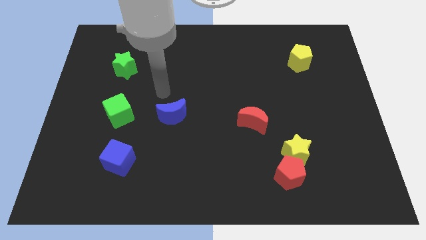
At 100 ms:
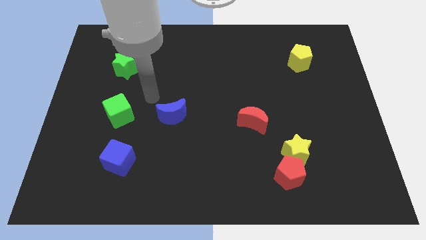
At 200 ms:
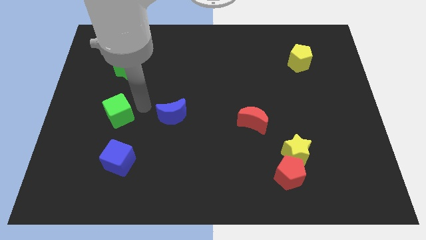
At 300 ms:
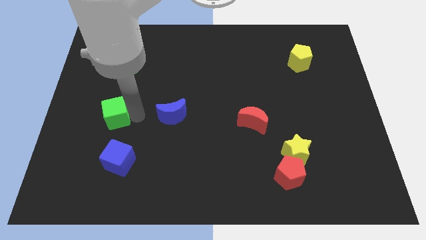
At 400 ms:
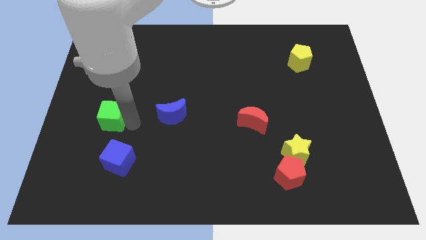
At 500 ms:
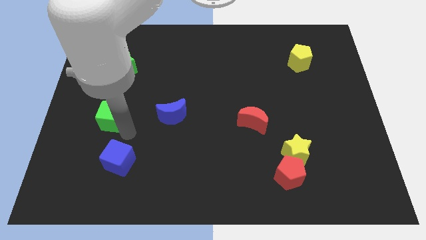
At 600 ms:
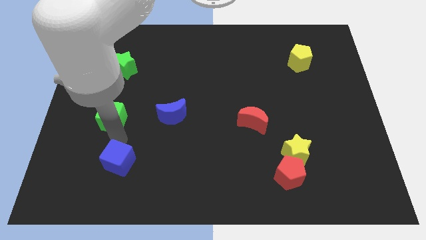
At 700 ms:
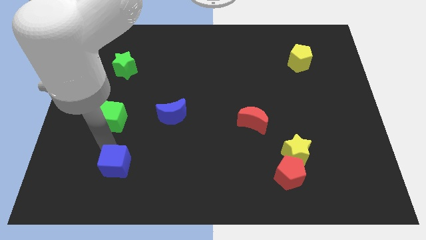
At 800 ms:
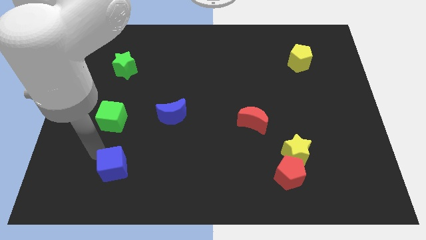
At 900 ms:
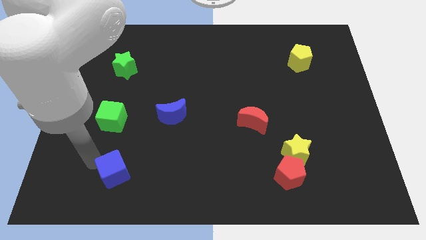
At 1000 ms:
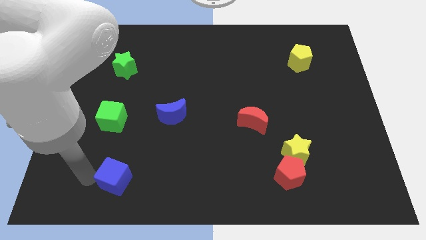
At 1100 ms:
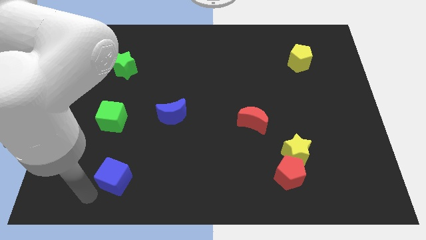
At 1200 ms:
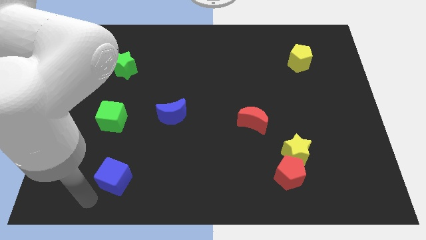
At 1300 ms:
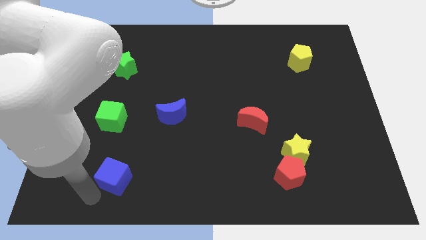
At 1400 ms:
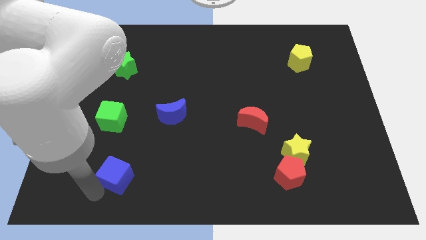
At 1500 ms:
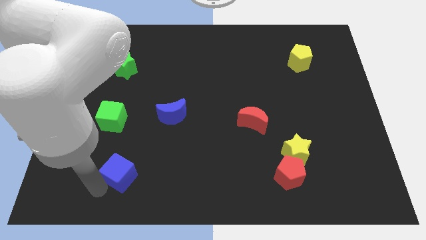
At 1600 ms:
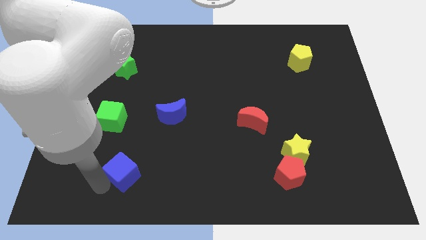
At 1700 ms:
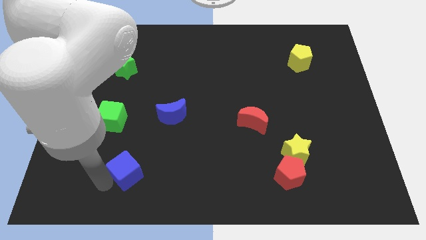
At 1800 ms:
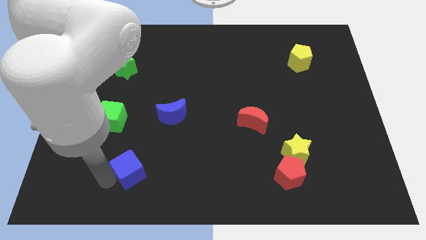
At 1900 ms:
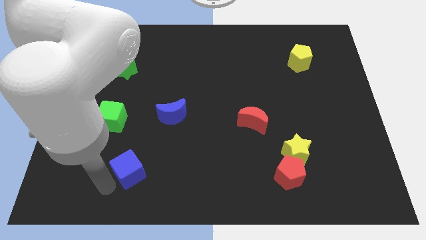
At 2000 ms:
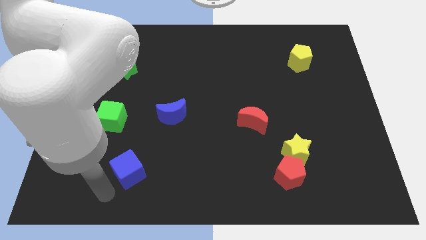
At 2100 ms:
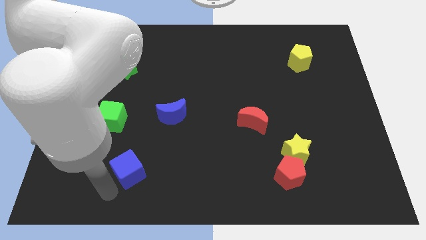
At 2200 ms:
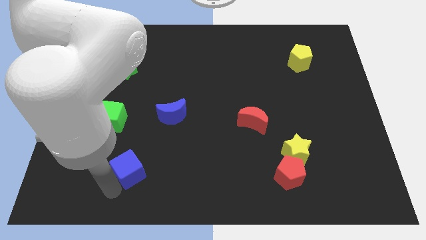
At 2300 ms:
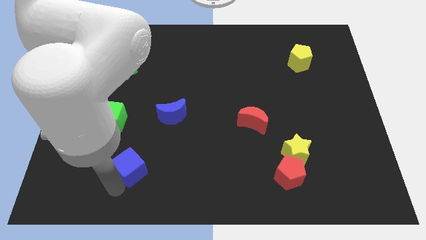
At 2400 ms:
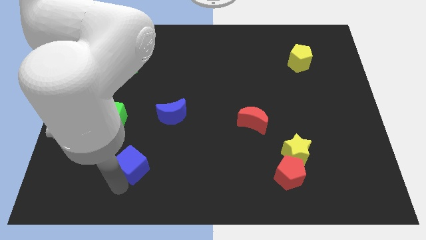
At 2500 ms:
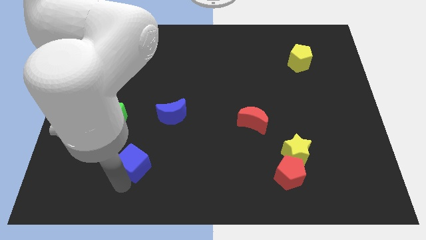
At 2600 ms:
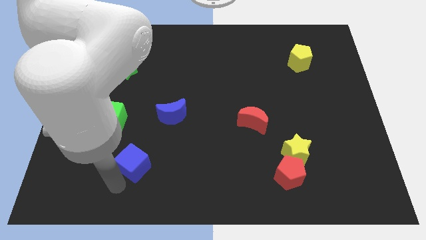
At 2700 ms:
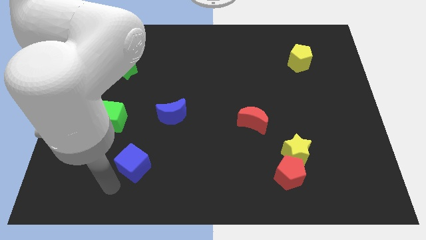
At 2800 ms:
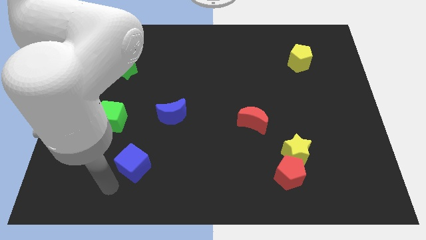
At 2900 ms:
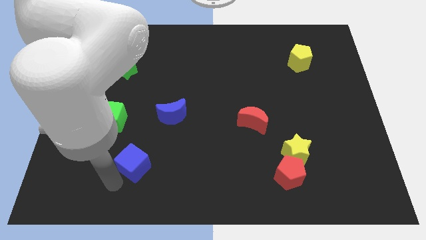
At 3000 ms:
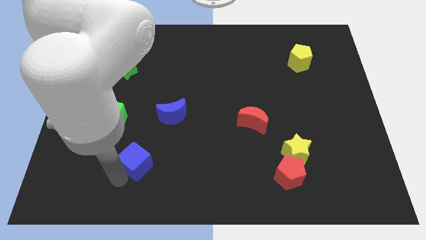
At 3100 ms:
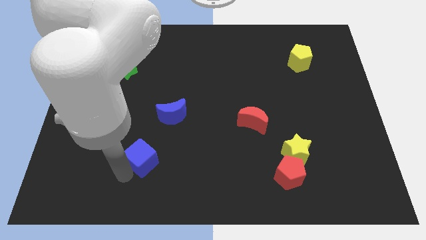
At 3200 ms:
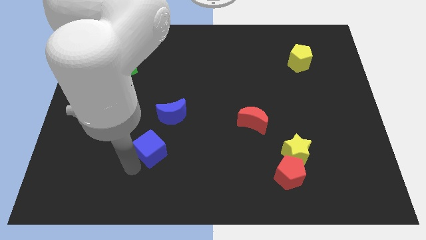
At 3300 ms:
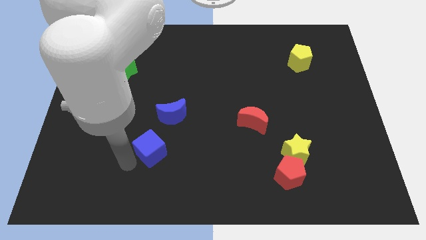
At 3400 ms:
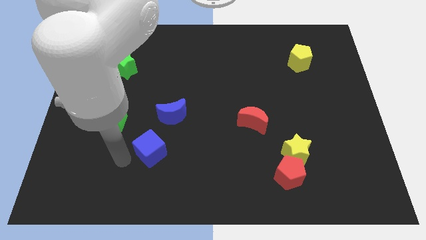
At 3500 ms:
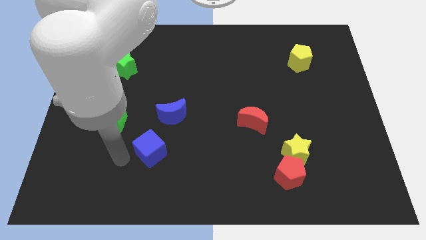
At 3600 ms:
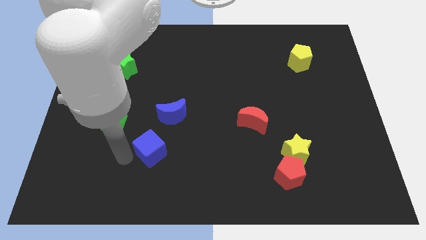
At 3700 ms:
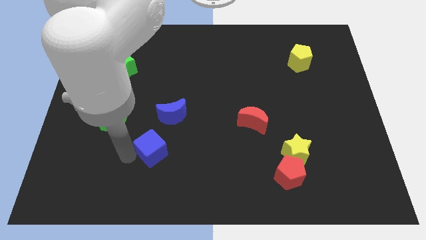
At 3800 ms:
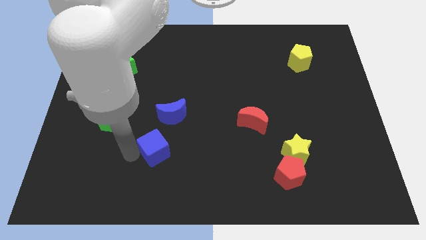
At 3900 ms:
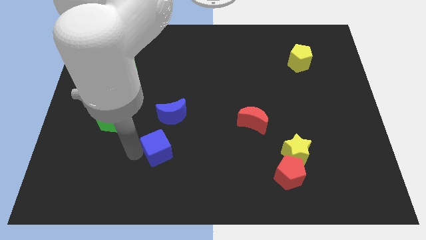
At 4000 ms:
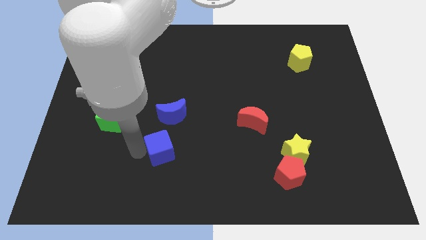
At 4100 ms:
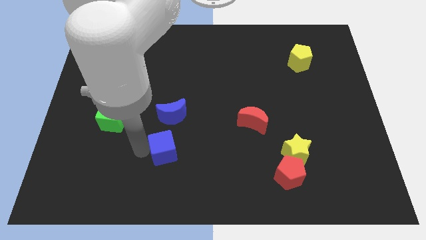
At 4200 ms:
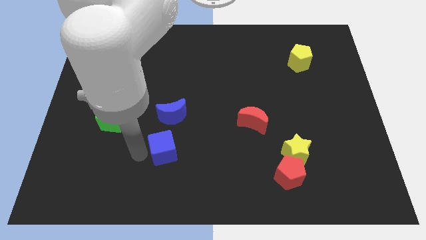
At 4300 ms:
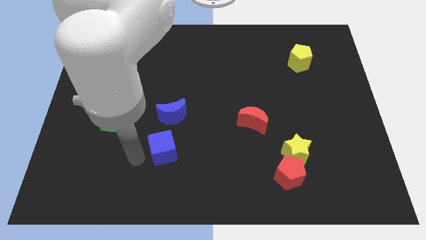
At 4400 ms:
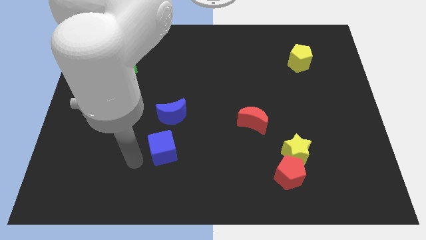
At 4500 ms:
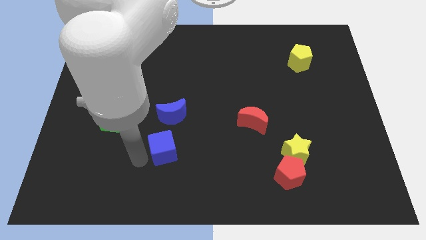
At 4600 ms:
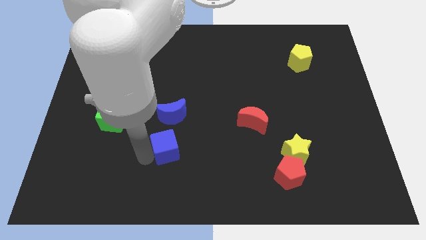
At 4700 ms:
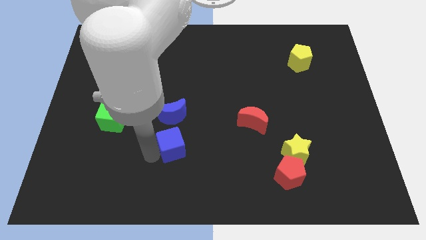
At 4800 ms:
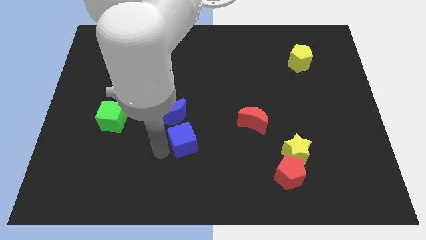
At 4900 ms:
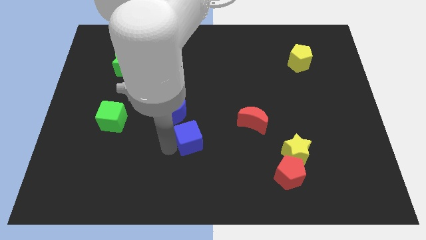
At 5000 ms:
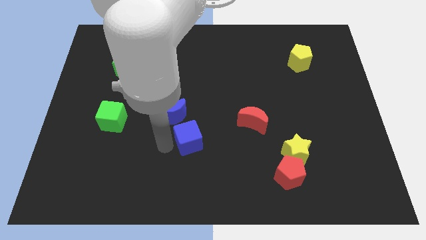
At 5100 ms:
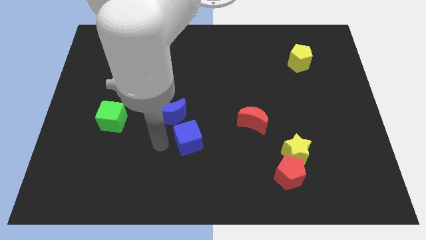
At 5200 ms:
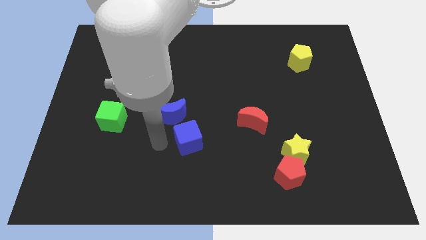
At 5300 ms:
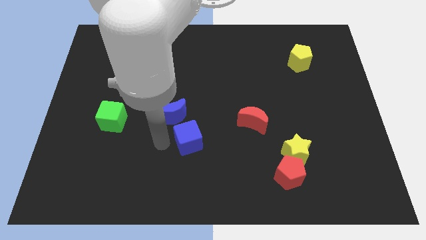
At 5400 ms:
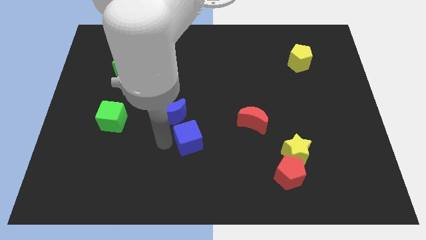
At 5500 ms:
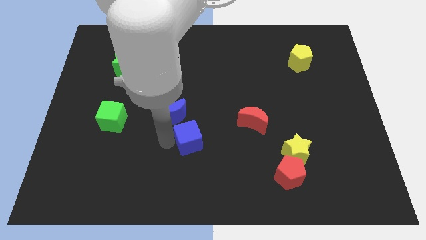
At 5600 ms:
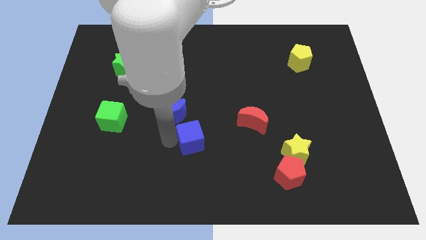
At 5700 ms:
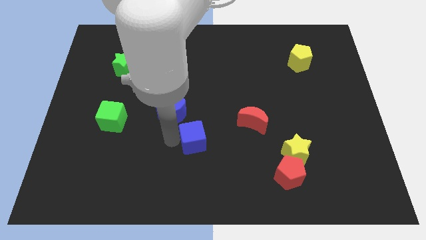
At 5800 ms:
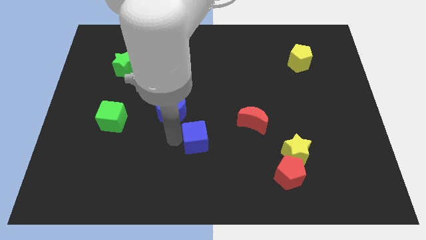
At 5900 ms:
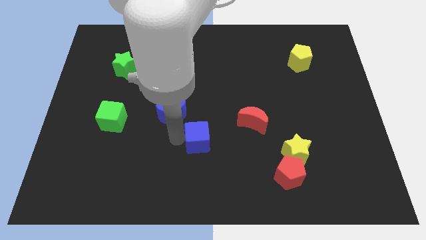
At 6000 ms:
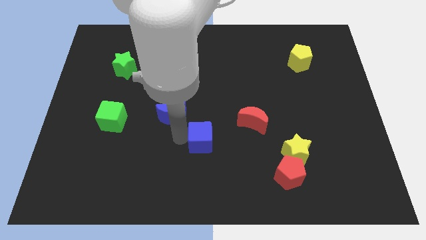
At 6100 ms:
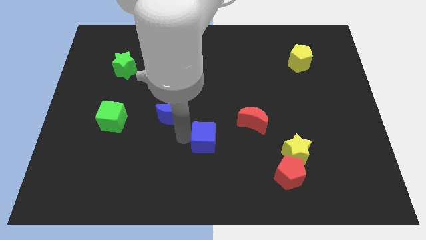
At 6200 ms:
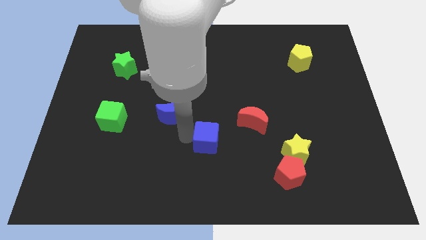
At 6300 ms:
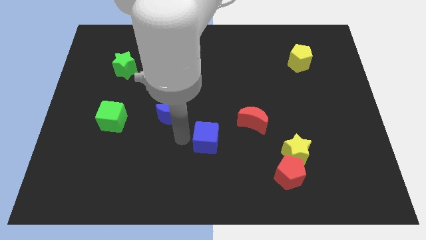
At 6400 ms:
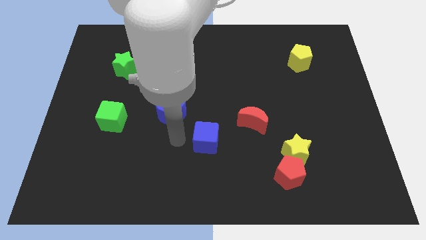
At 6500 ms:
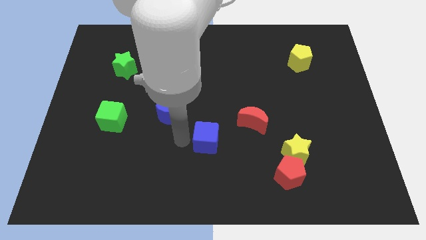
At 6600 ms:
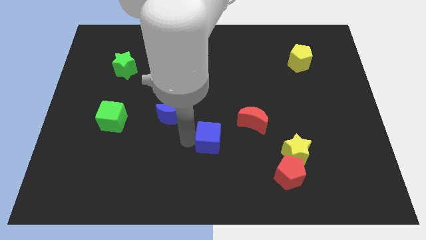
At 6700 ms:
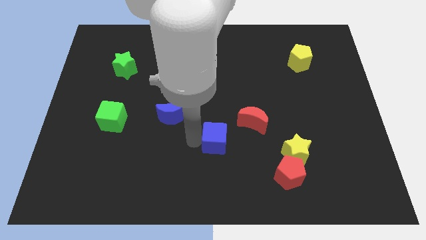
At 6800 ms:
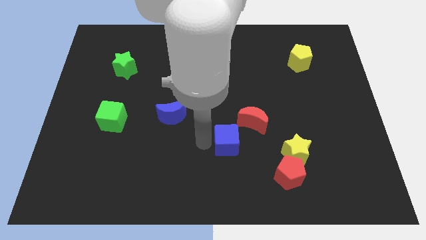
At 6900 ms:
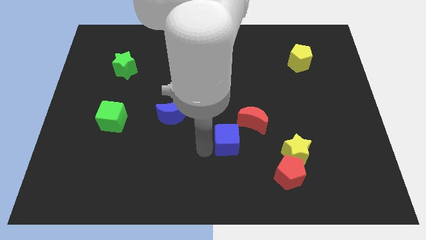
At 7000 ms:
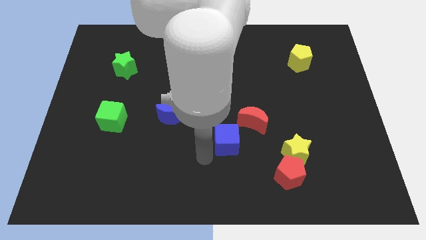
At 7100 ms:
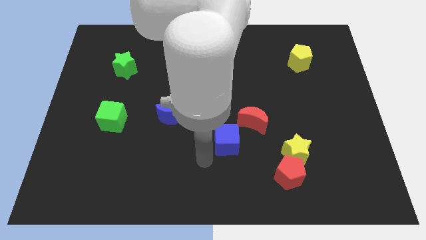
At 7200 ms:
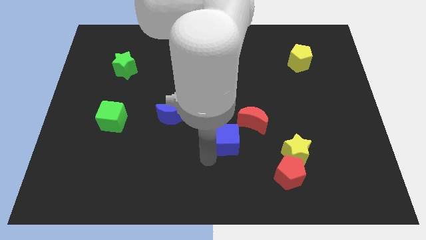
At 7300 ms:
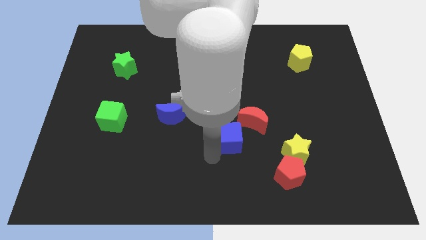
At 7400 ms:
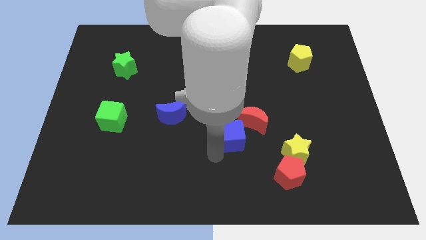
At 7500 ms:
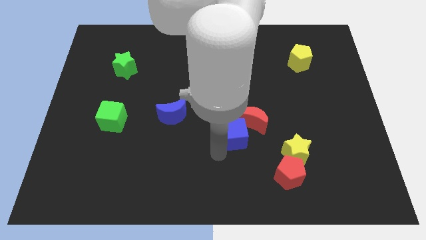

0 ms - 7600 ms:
push the blue cube to the red moon
